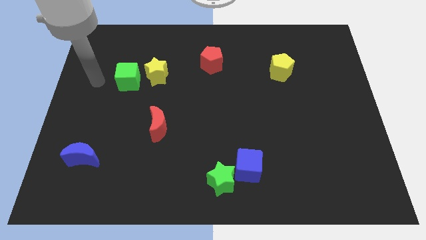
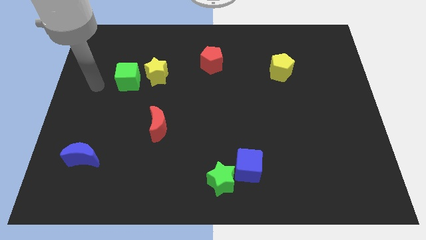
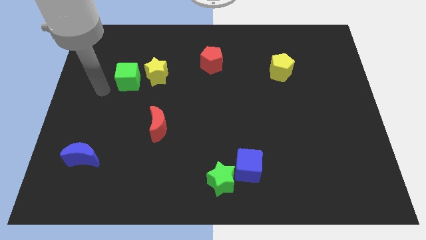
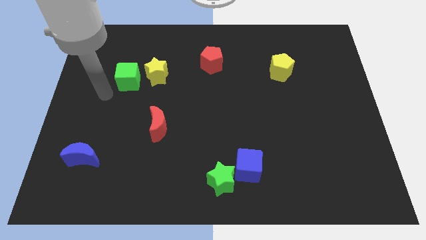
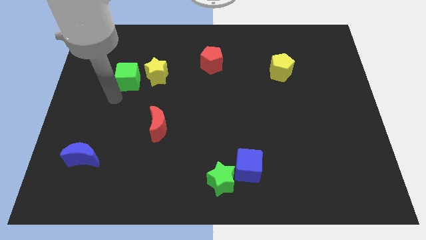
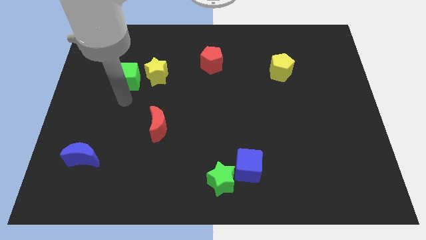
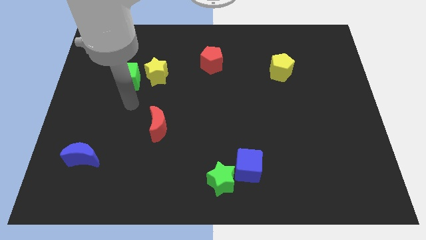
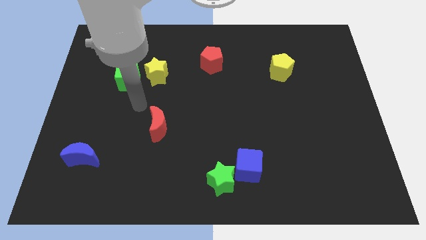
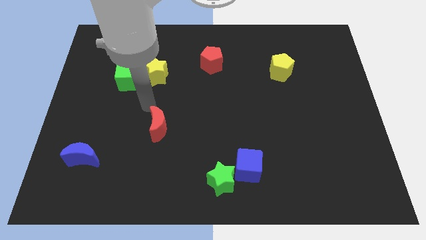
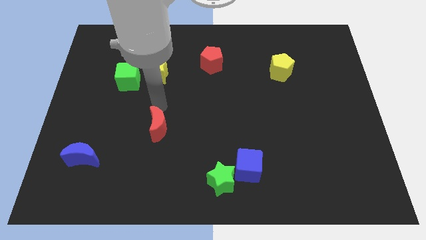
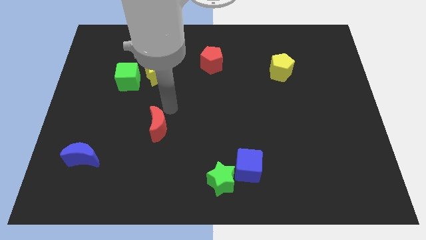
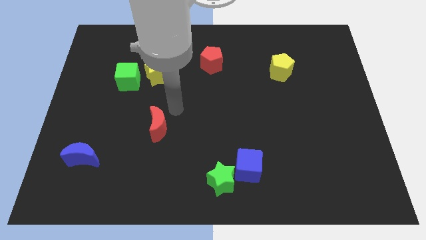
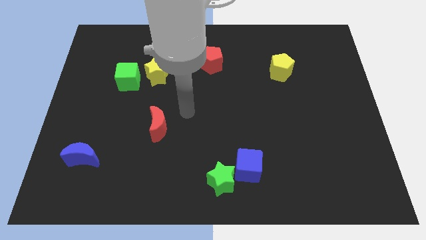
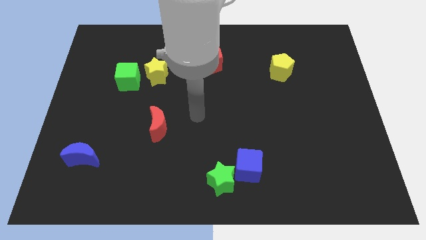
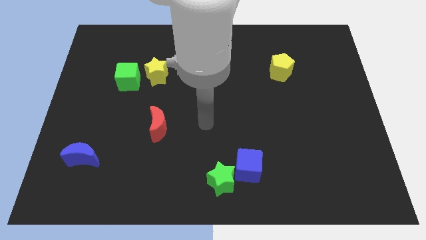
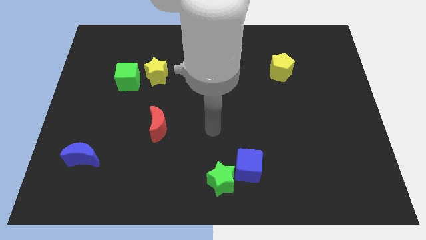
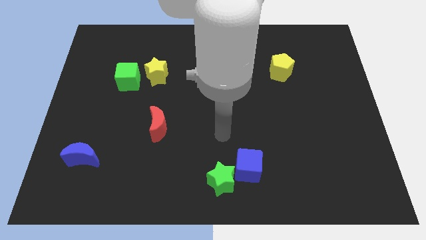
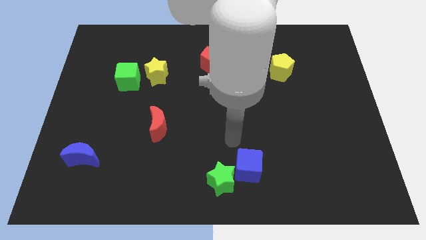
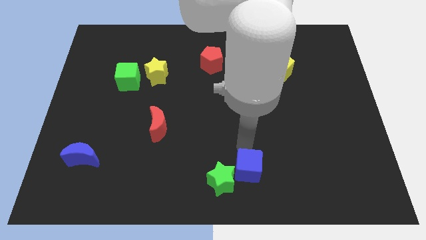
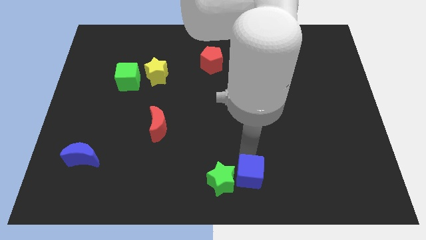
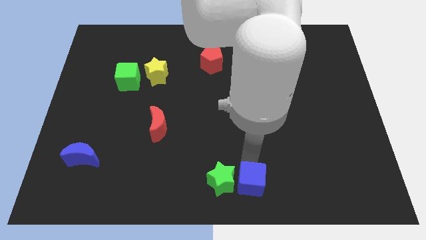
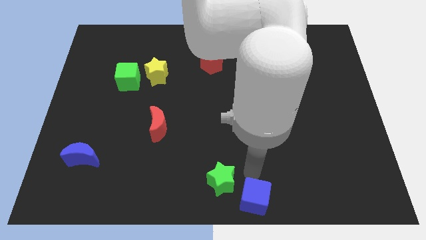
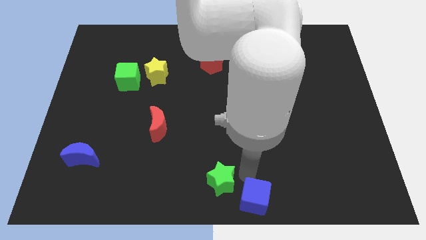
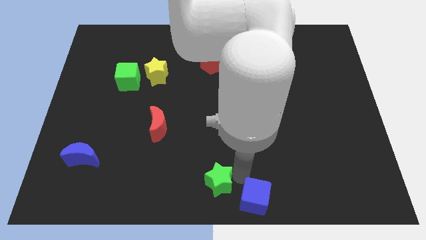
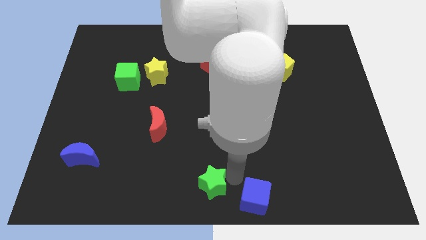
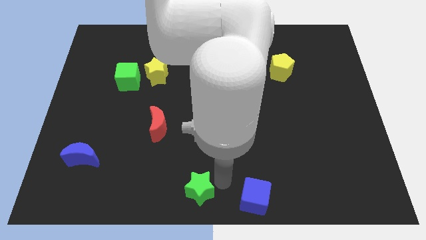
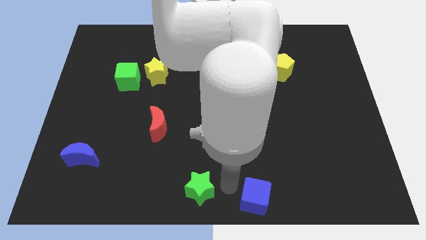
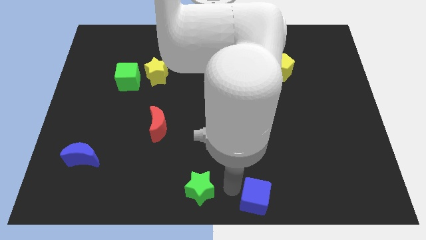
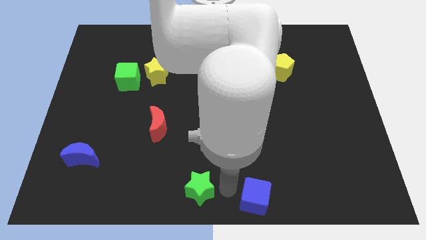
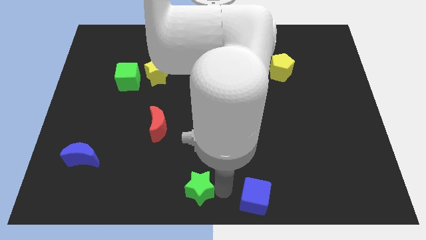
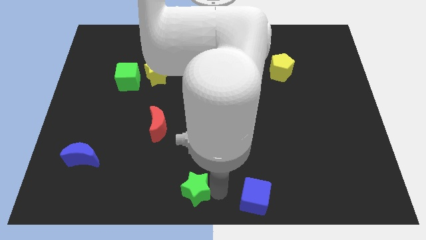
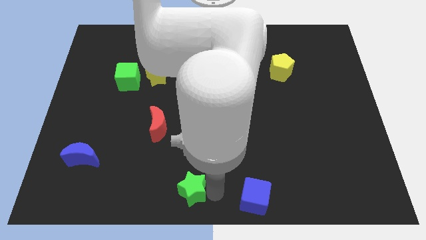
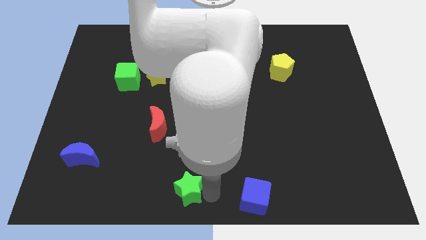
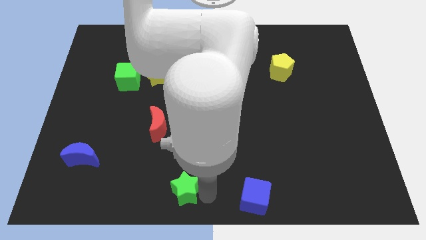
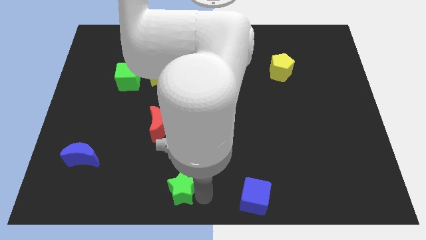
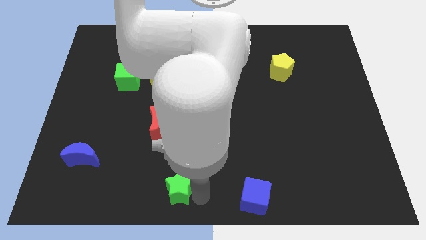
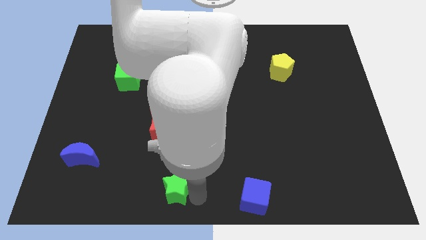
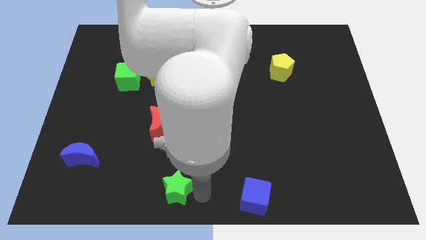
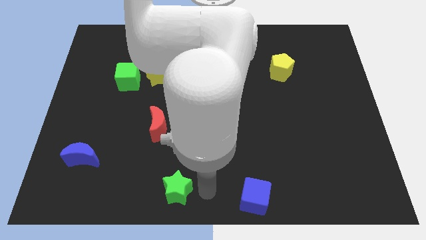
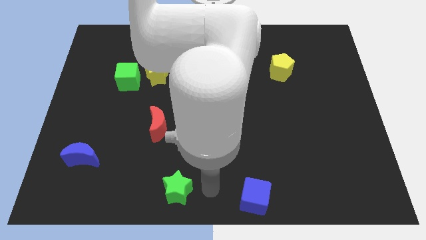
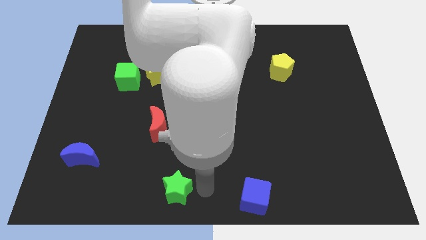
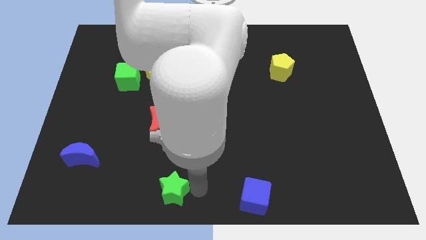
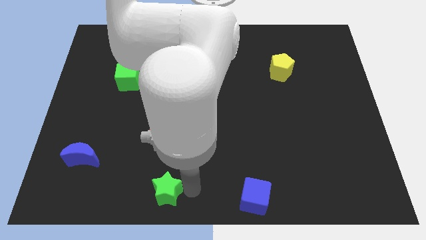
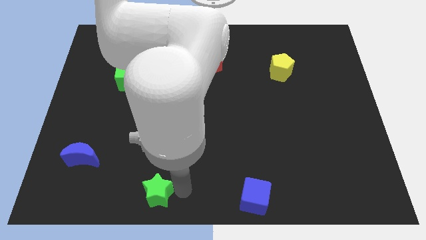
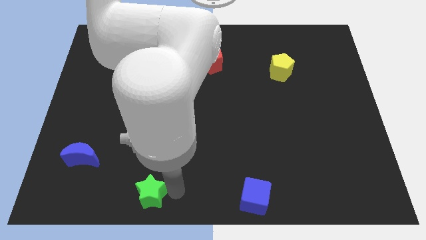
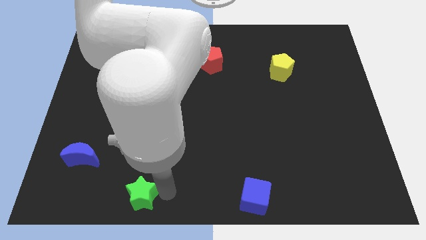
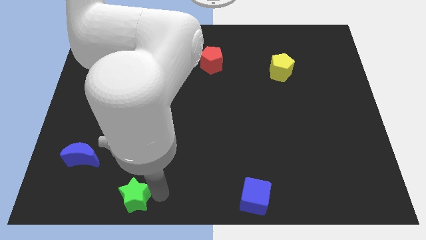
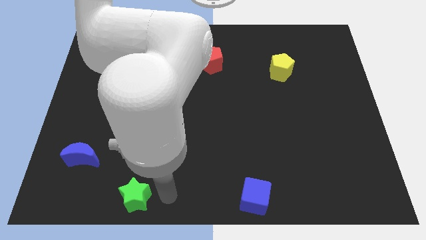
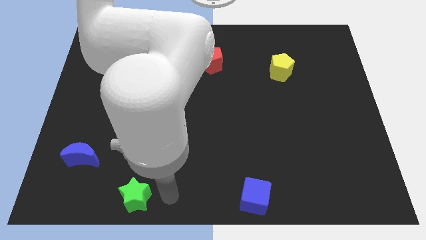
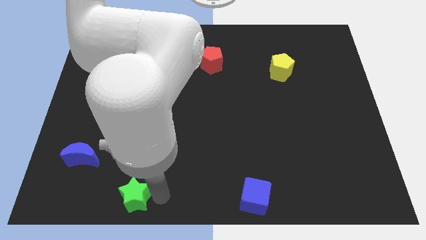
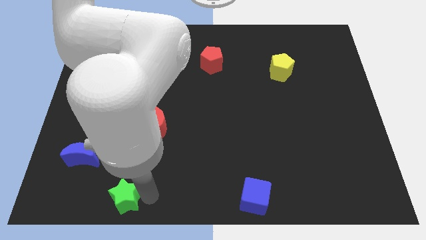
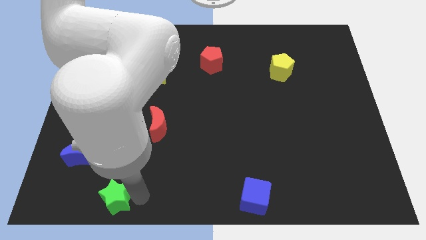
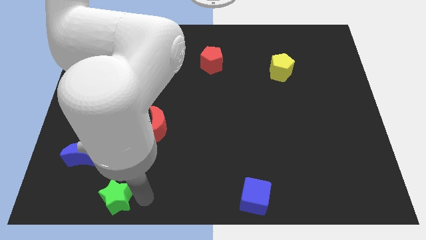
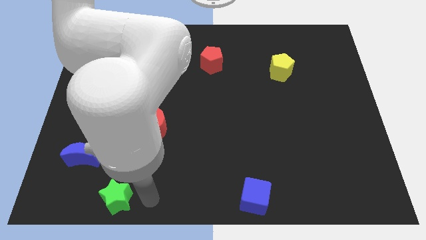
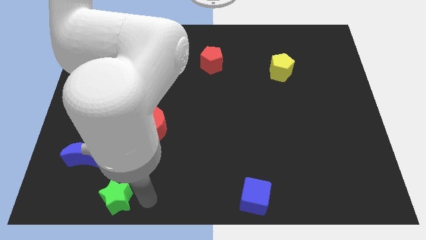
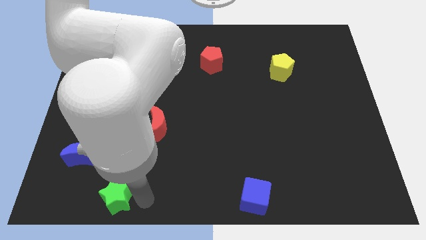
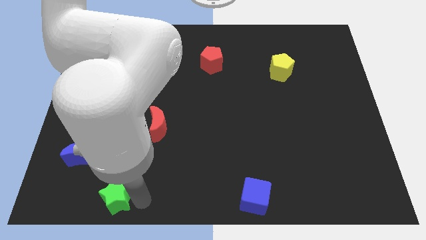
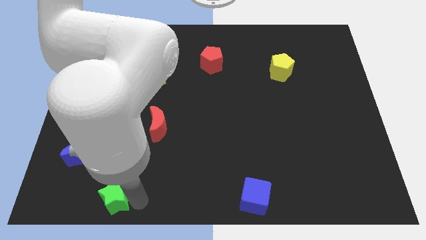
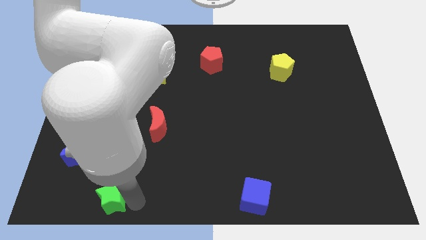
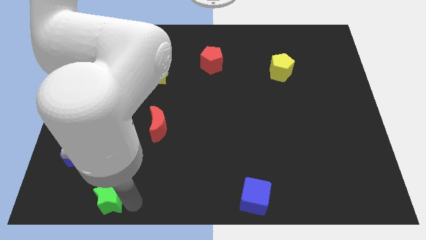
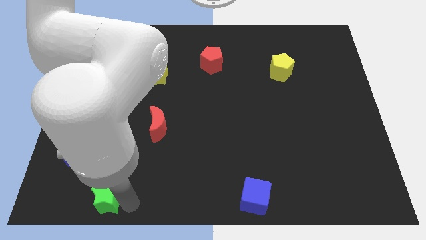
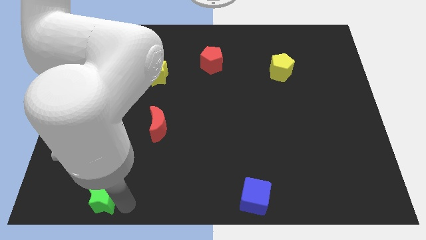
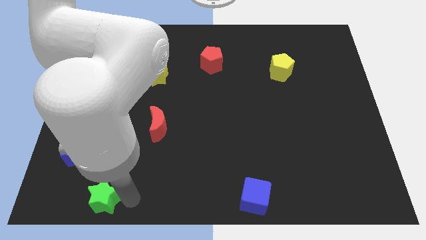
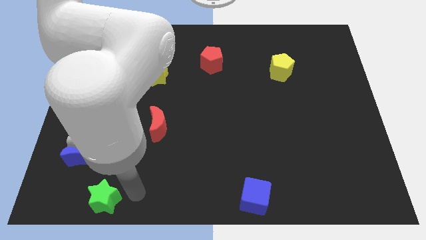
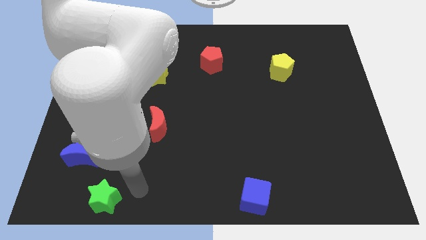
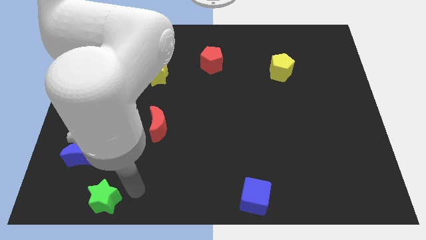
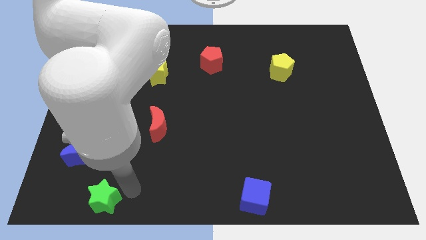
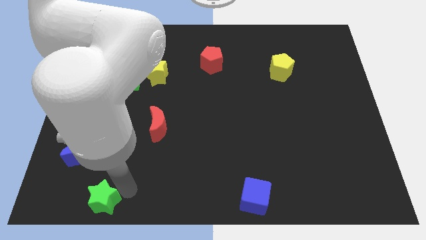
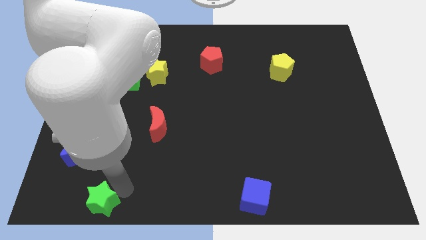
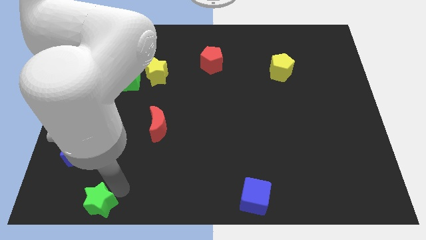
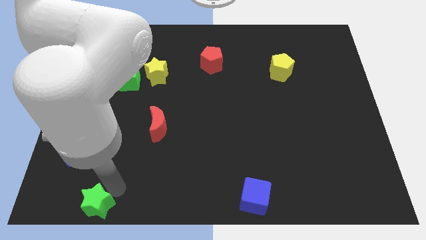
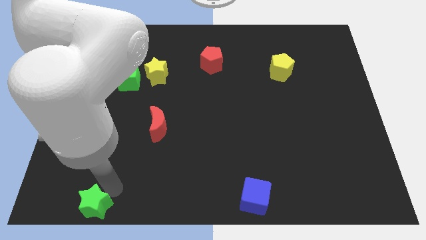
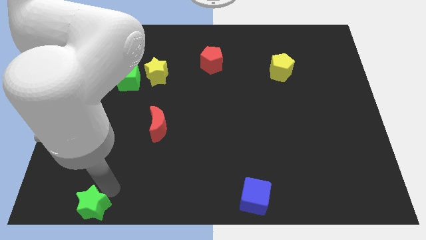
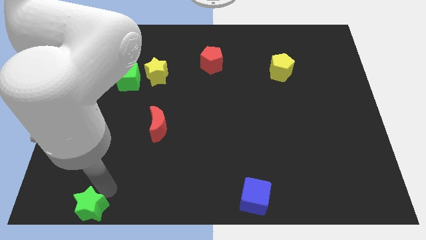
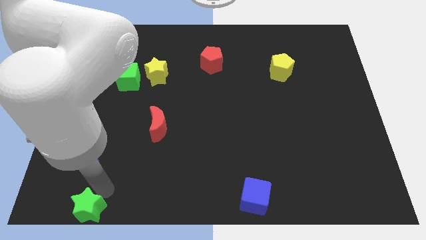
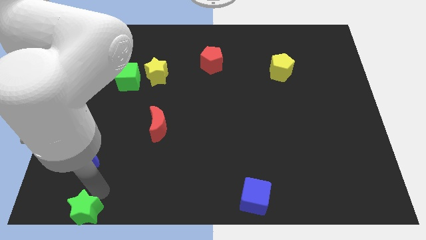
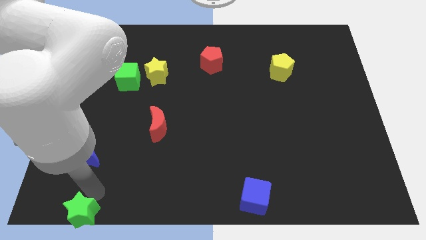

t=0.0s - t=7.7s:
put the green star to the bottom left
